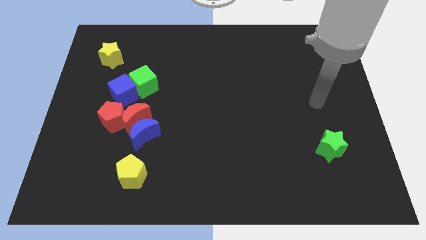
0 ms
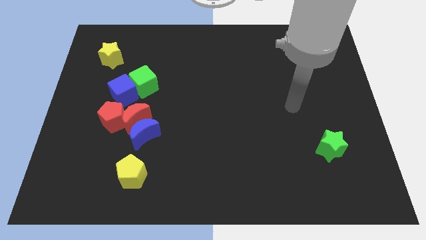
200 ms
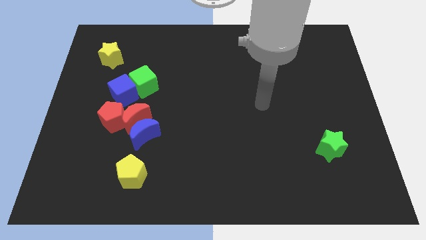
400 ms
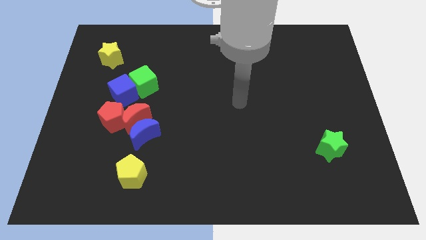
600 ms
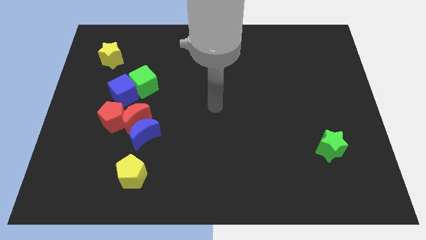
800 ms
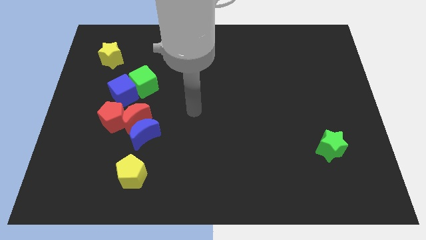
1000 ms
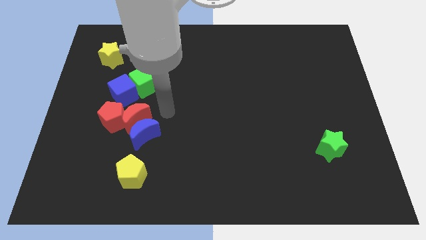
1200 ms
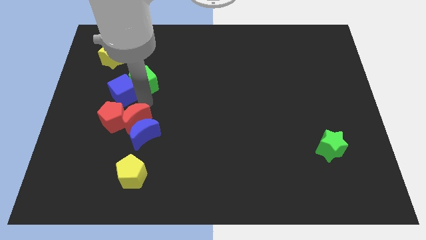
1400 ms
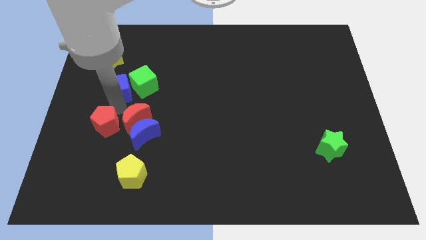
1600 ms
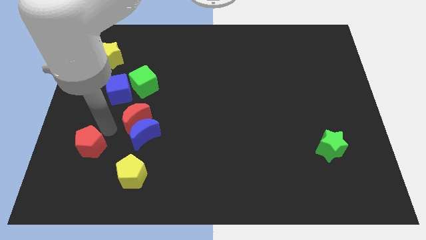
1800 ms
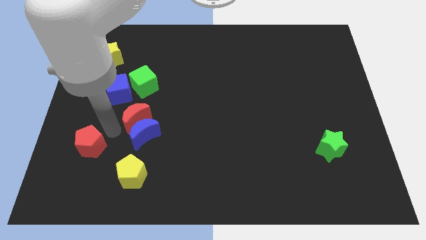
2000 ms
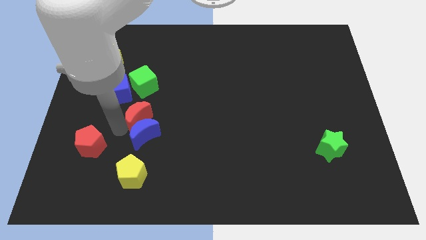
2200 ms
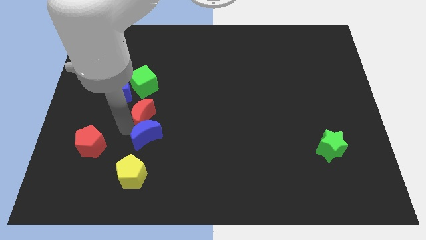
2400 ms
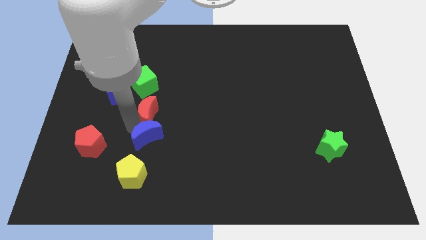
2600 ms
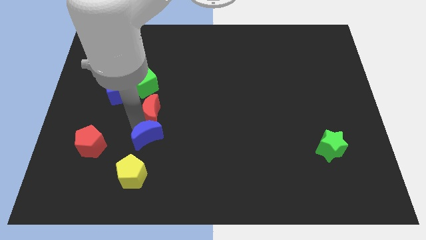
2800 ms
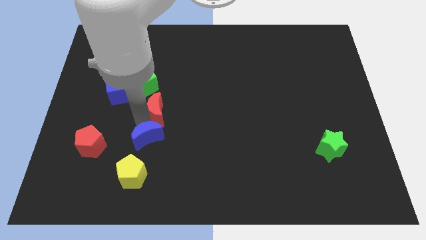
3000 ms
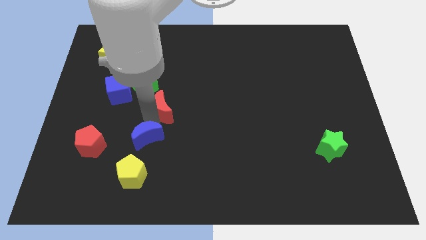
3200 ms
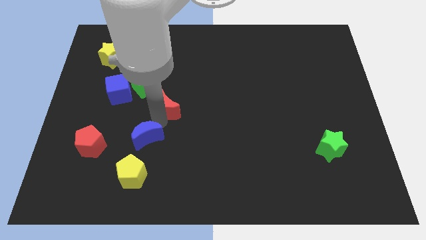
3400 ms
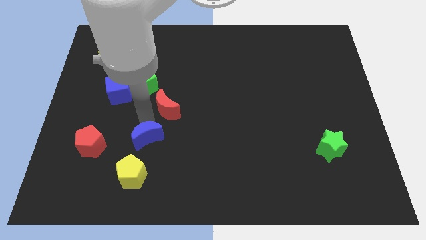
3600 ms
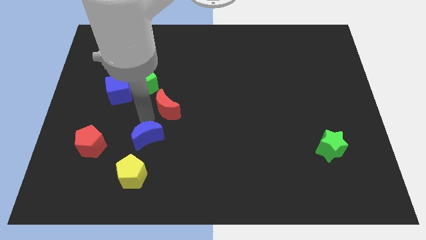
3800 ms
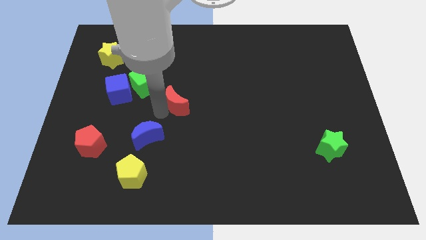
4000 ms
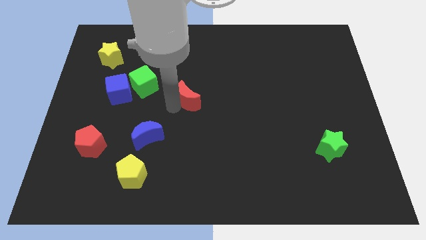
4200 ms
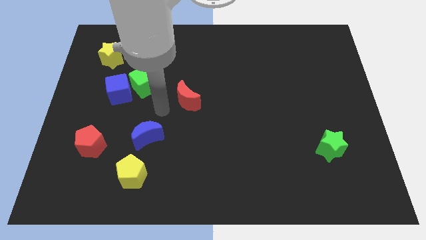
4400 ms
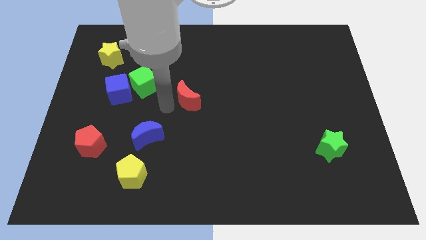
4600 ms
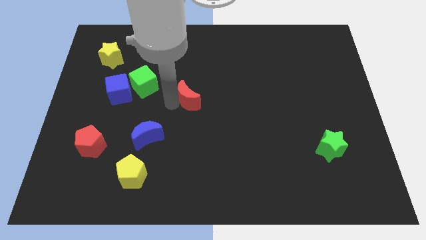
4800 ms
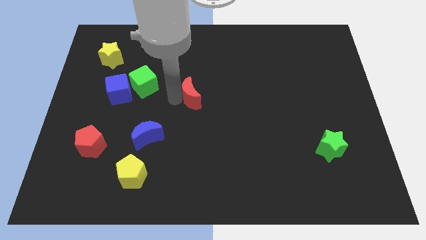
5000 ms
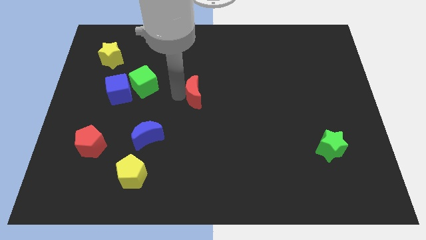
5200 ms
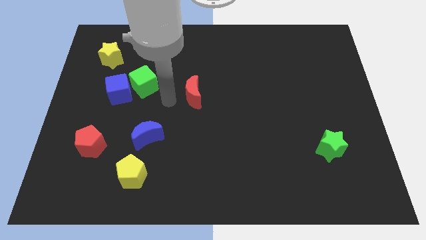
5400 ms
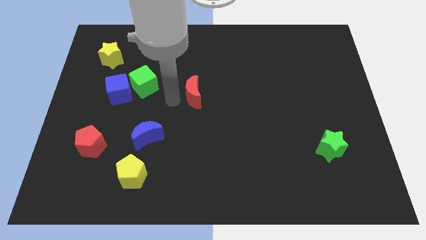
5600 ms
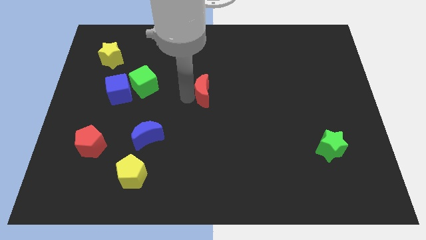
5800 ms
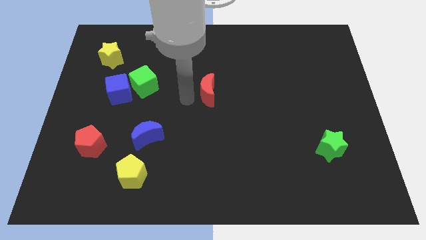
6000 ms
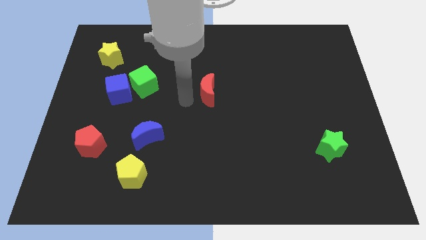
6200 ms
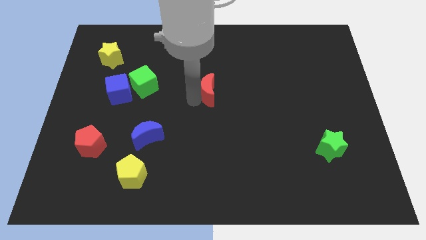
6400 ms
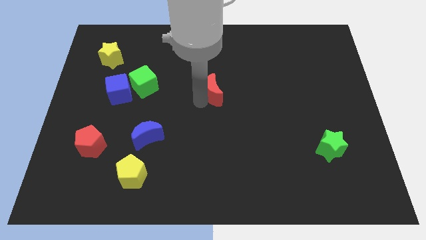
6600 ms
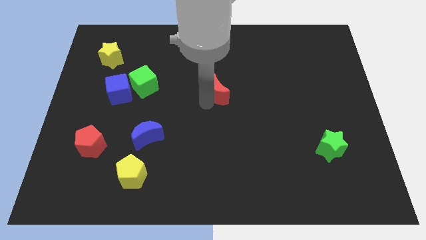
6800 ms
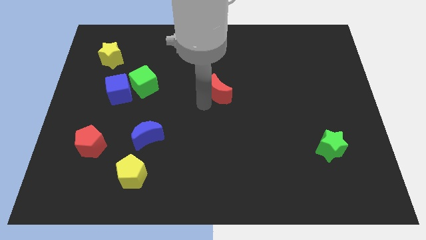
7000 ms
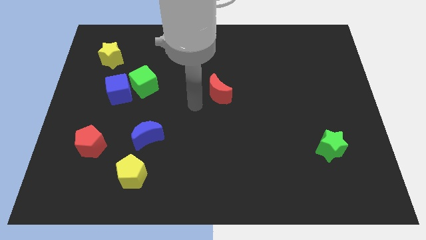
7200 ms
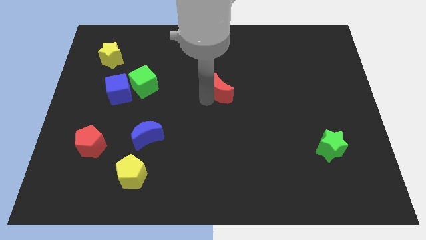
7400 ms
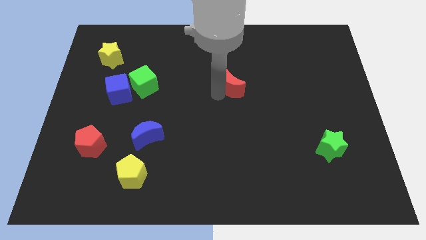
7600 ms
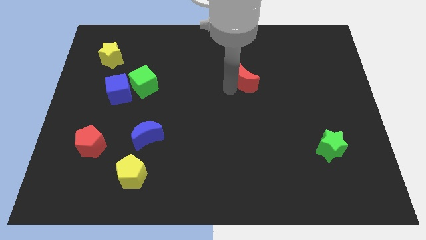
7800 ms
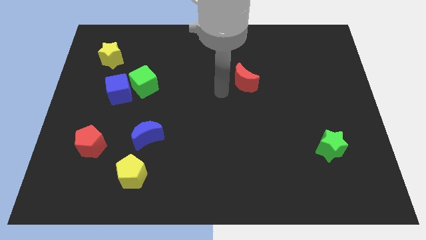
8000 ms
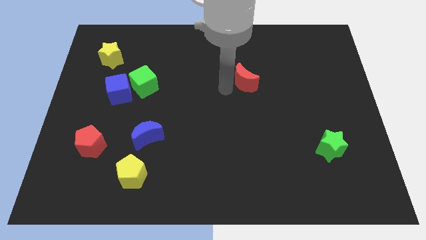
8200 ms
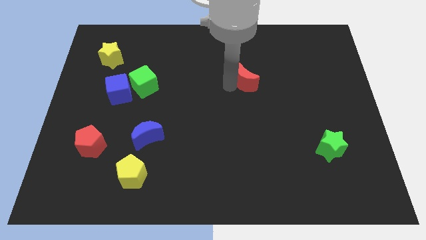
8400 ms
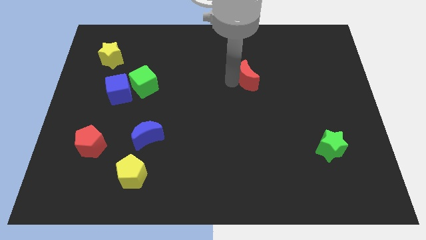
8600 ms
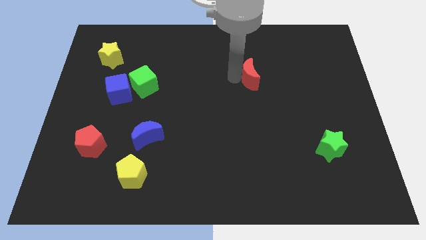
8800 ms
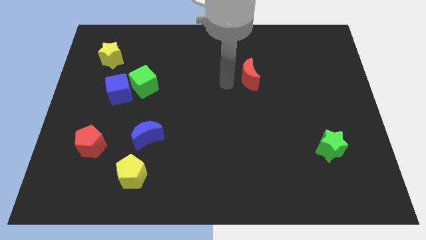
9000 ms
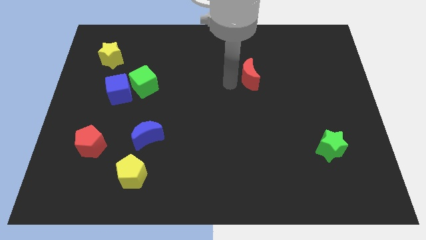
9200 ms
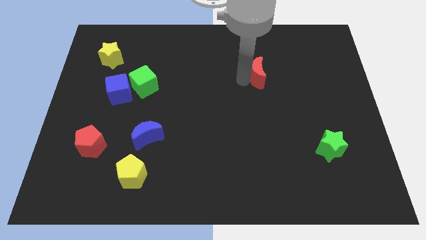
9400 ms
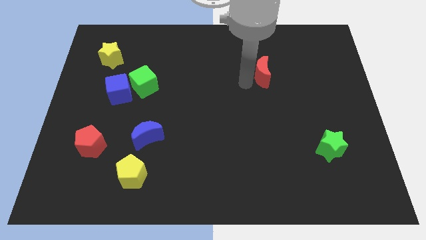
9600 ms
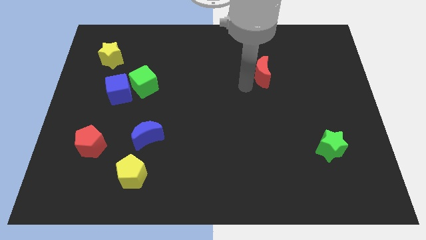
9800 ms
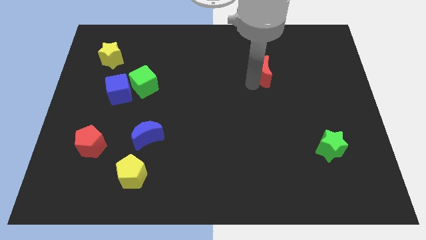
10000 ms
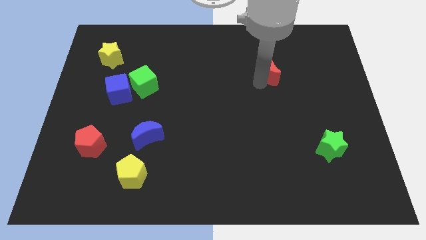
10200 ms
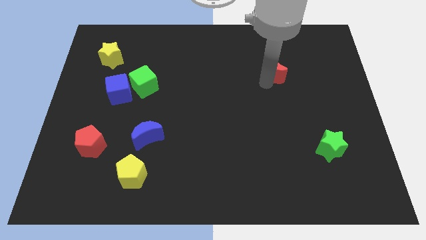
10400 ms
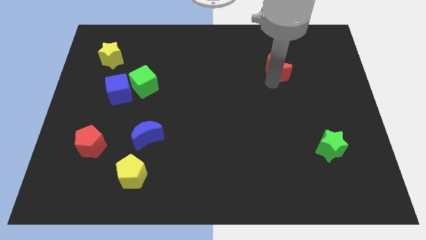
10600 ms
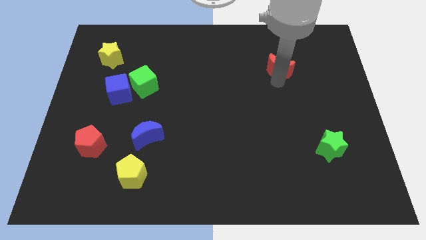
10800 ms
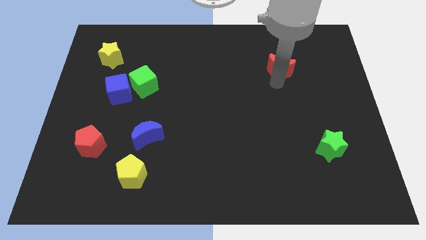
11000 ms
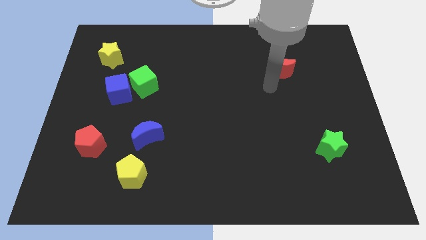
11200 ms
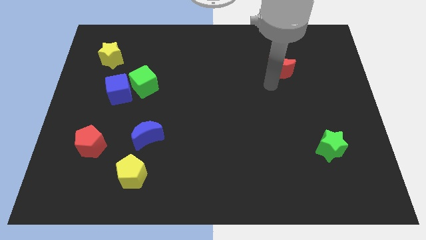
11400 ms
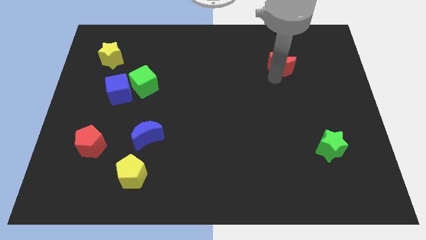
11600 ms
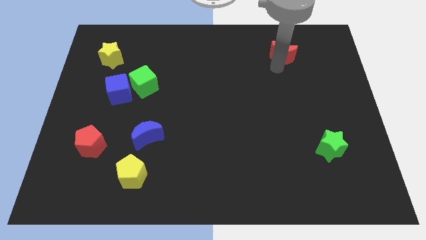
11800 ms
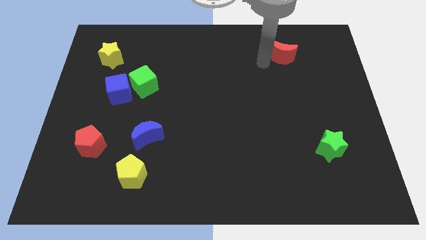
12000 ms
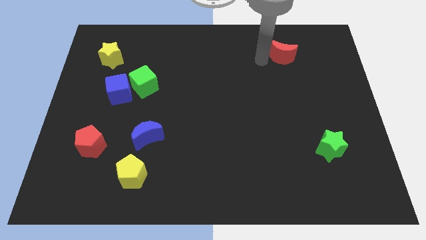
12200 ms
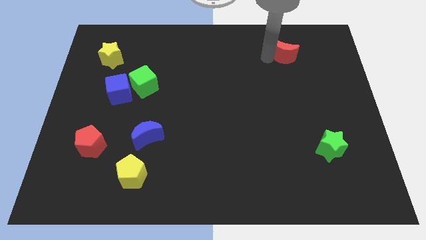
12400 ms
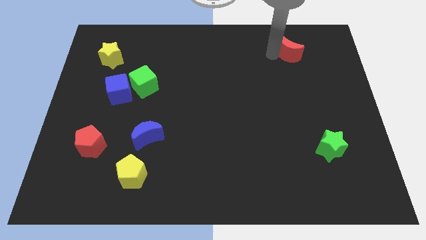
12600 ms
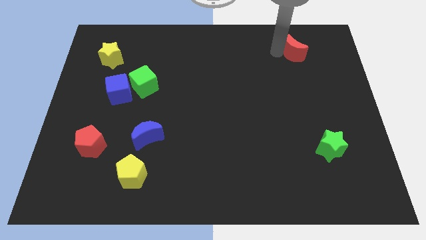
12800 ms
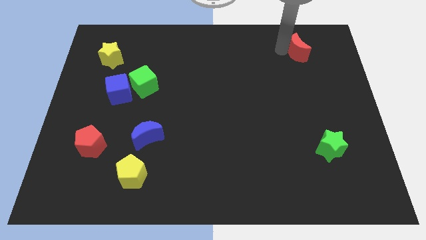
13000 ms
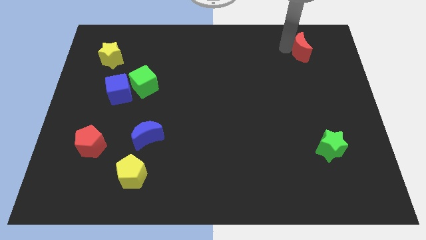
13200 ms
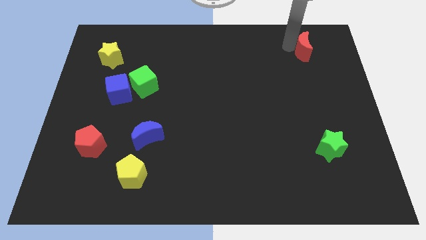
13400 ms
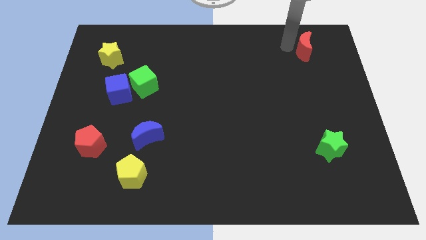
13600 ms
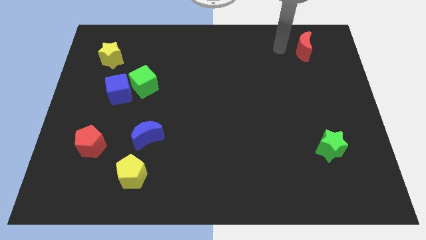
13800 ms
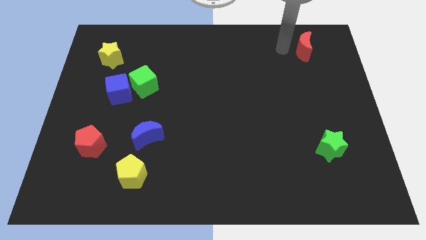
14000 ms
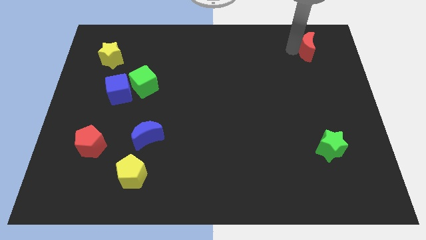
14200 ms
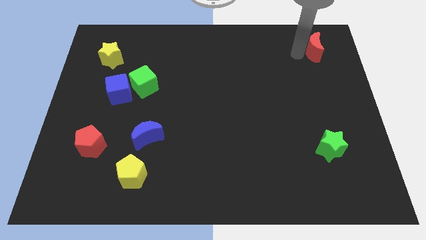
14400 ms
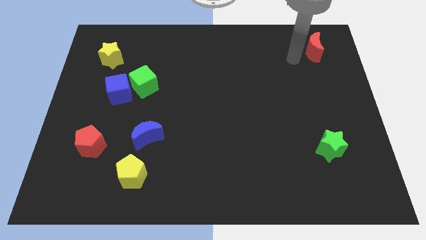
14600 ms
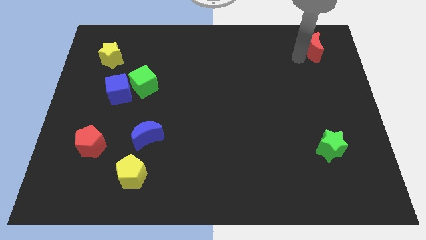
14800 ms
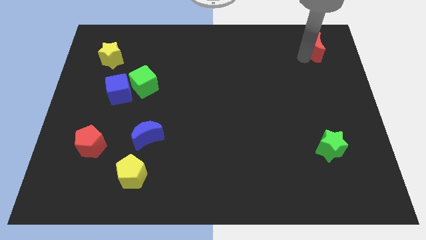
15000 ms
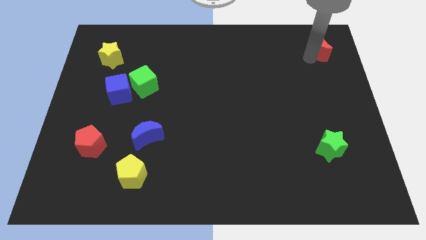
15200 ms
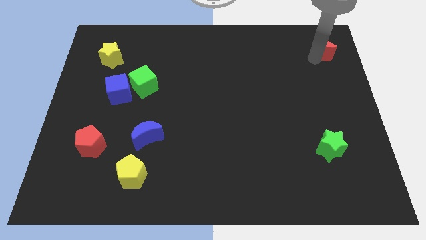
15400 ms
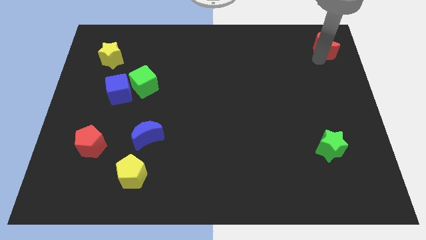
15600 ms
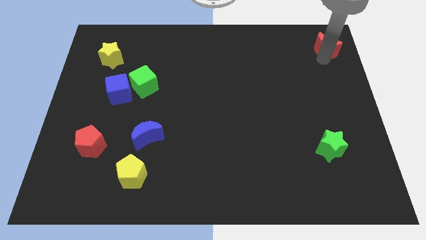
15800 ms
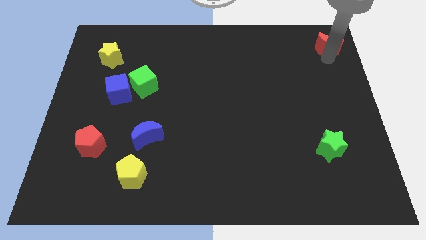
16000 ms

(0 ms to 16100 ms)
slide the red moon to the top right
